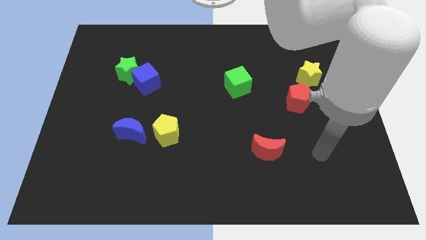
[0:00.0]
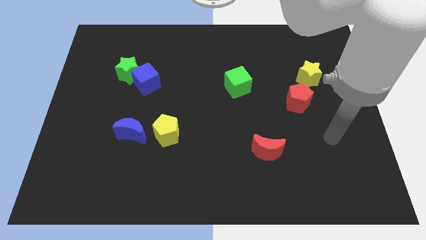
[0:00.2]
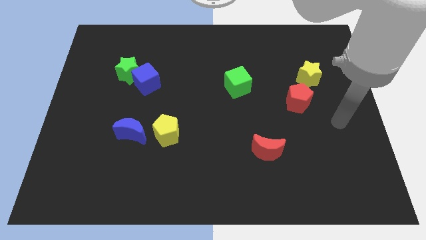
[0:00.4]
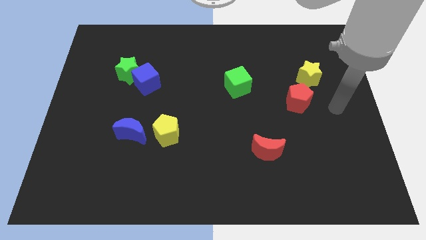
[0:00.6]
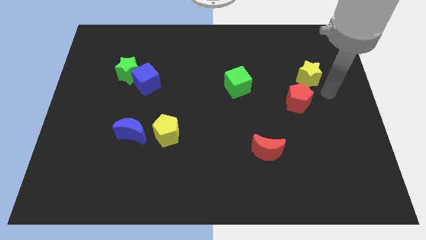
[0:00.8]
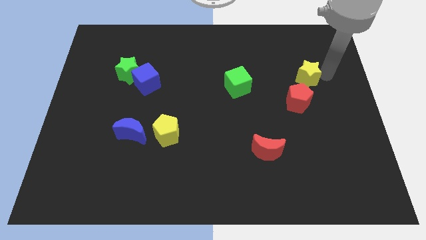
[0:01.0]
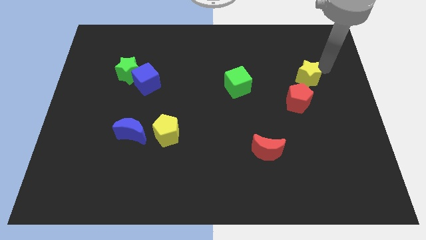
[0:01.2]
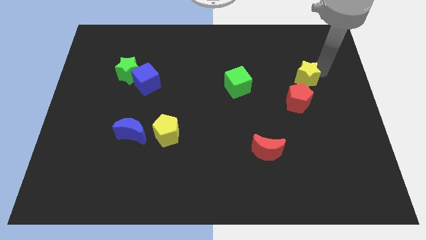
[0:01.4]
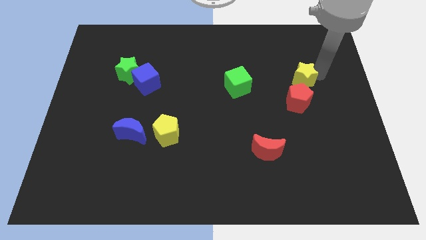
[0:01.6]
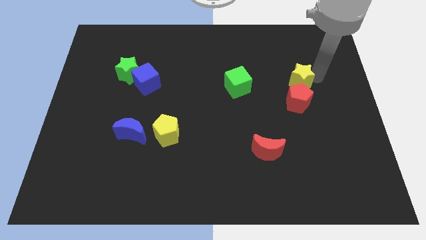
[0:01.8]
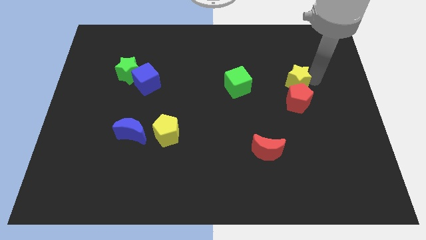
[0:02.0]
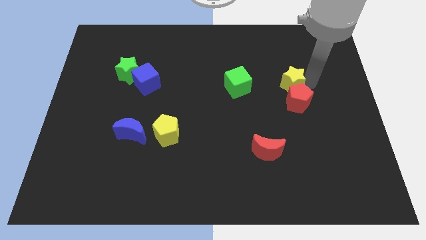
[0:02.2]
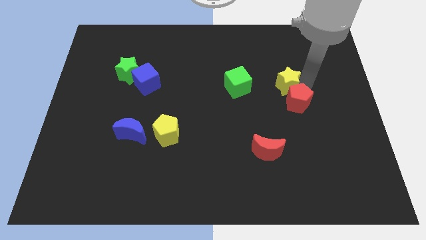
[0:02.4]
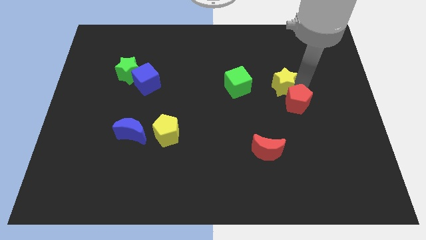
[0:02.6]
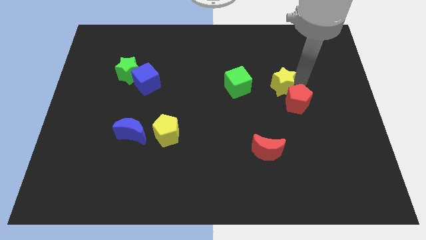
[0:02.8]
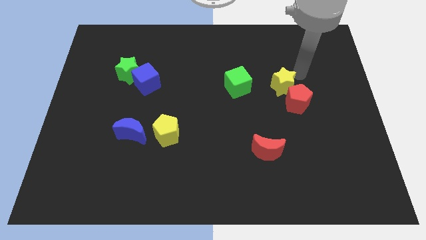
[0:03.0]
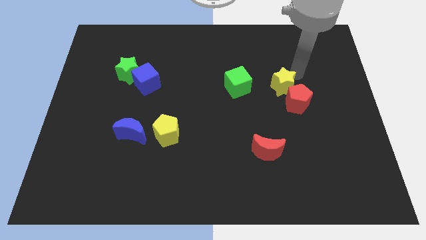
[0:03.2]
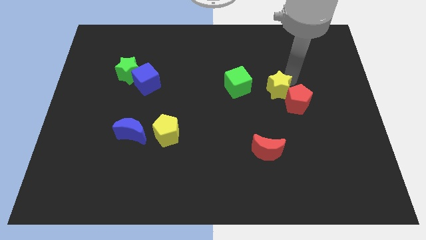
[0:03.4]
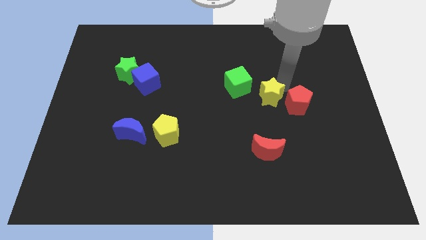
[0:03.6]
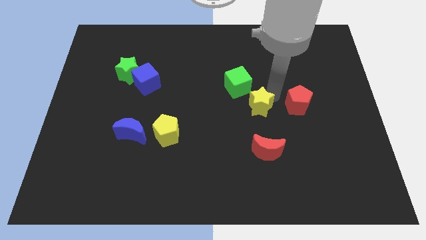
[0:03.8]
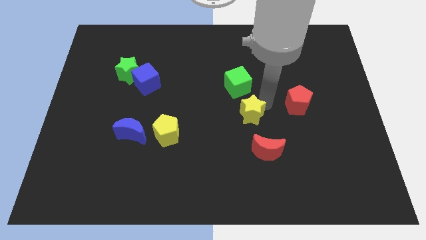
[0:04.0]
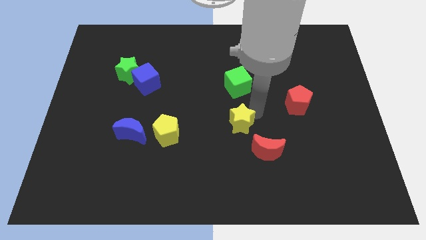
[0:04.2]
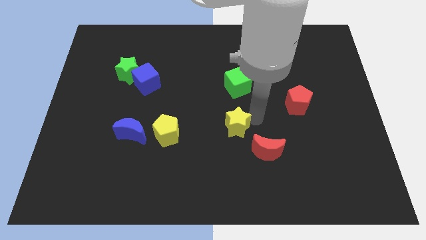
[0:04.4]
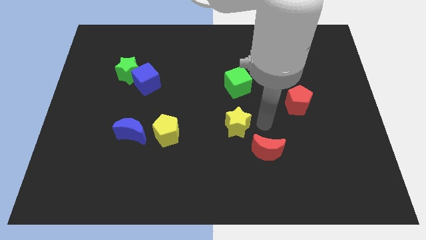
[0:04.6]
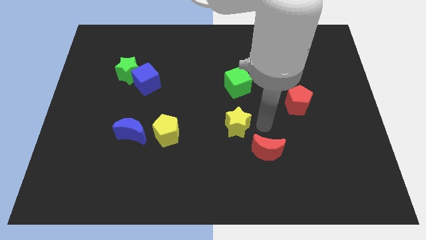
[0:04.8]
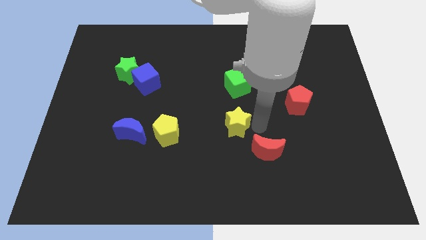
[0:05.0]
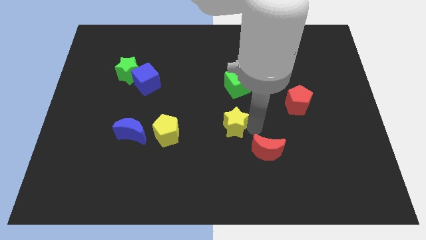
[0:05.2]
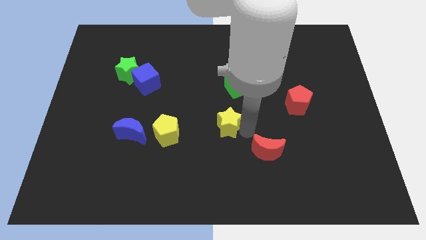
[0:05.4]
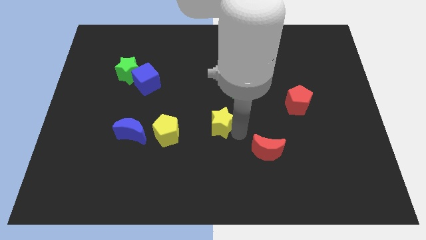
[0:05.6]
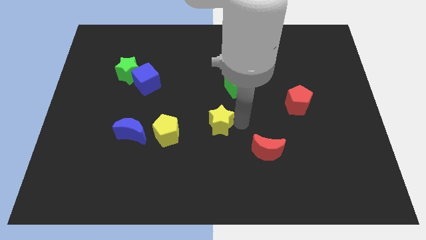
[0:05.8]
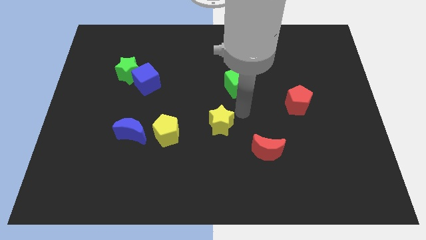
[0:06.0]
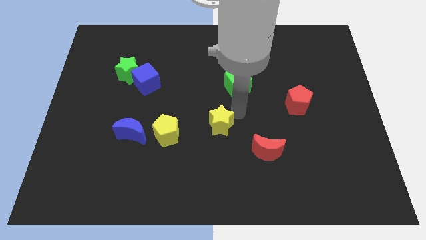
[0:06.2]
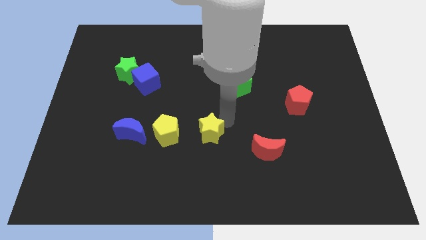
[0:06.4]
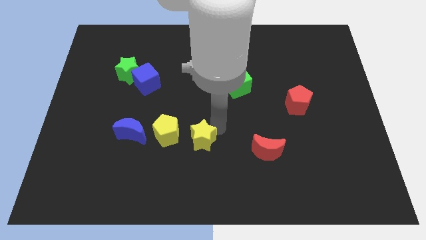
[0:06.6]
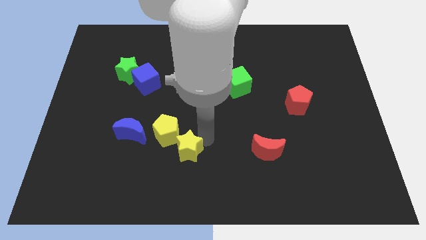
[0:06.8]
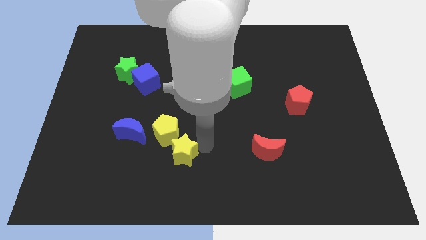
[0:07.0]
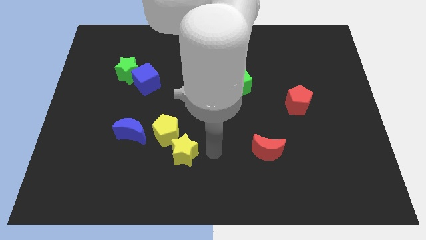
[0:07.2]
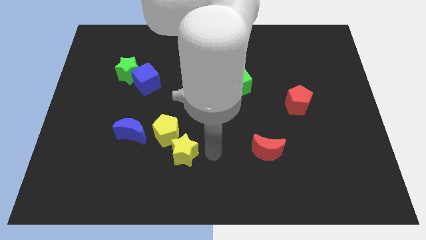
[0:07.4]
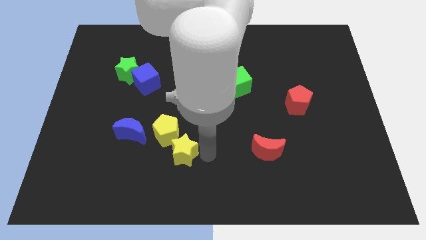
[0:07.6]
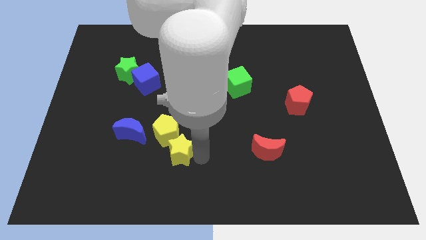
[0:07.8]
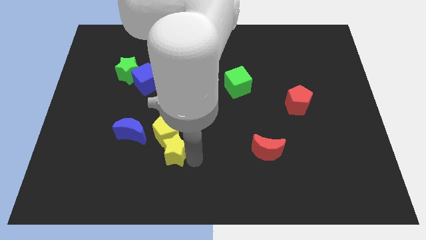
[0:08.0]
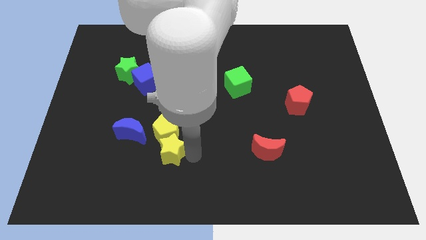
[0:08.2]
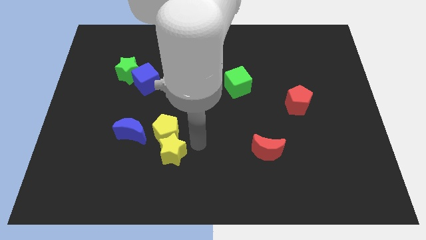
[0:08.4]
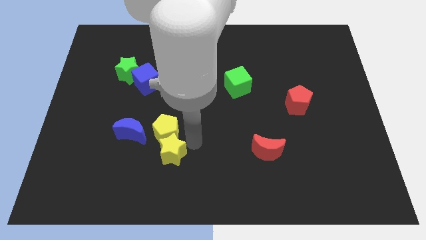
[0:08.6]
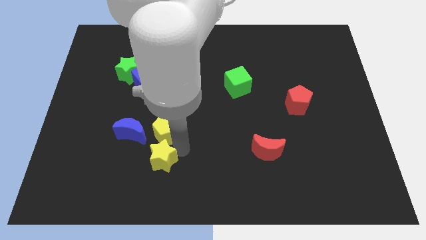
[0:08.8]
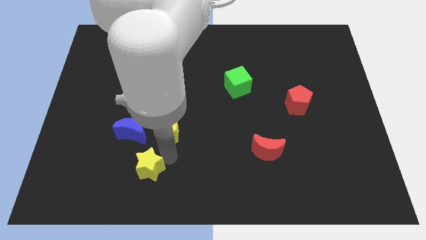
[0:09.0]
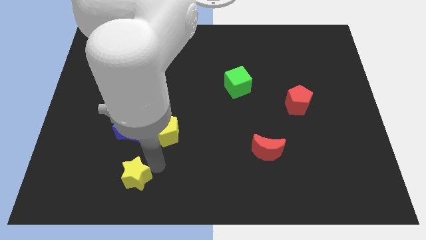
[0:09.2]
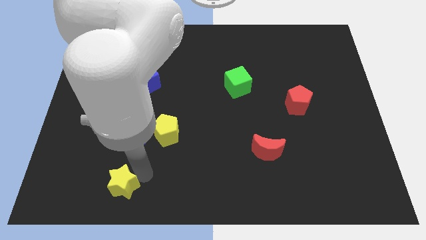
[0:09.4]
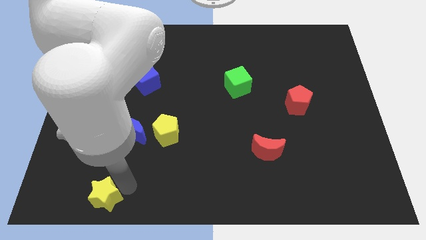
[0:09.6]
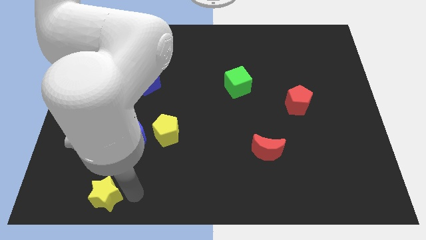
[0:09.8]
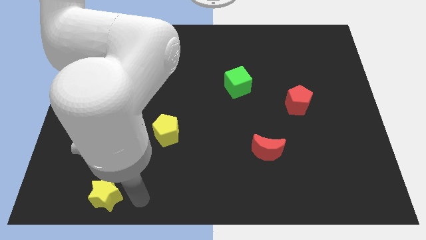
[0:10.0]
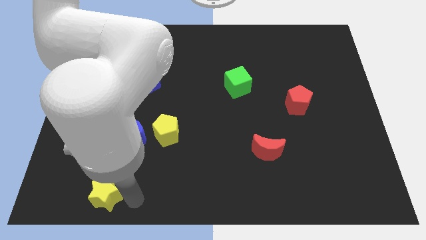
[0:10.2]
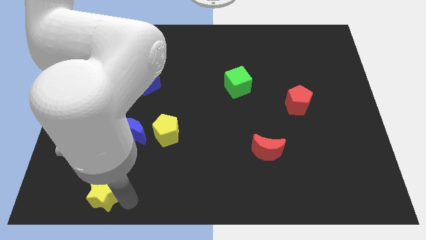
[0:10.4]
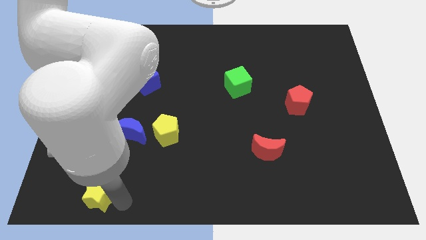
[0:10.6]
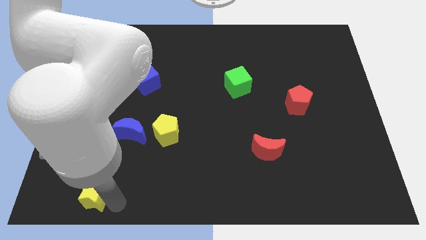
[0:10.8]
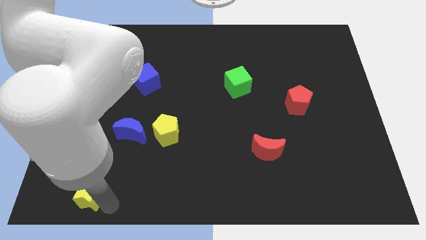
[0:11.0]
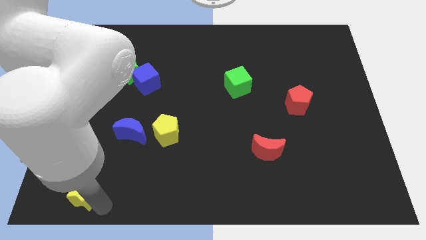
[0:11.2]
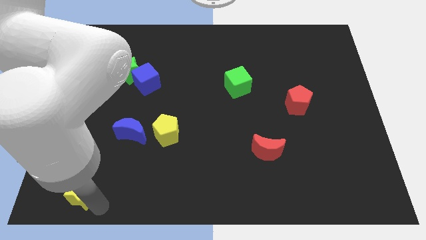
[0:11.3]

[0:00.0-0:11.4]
slide the yellow star to the bottom left of the board

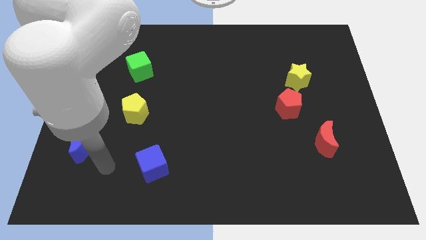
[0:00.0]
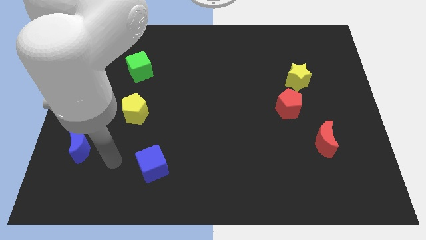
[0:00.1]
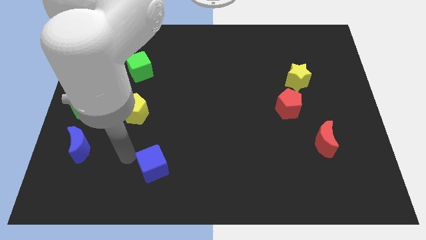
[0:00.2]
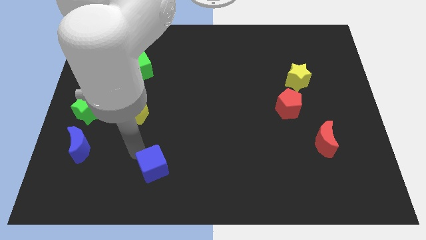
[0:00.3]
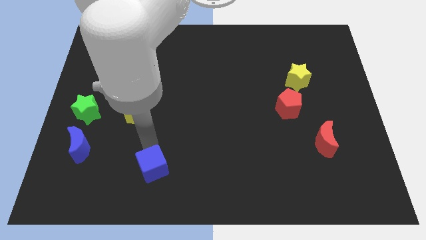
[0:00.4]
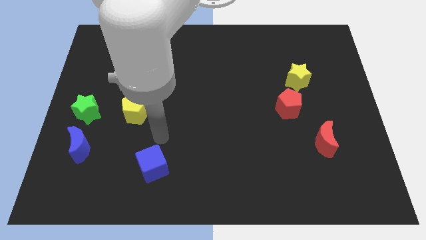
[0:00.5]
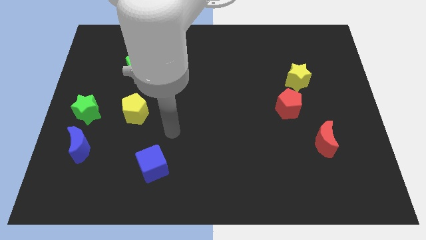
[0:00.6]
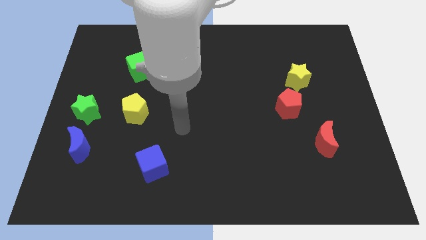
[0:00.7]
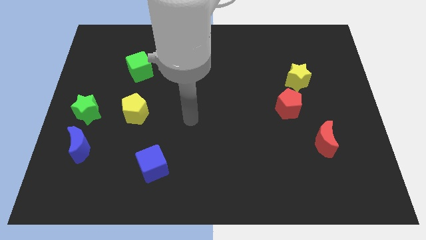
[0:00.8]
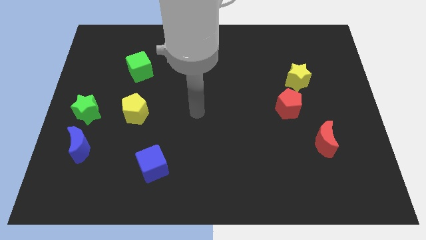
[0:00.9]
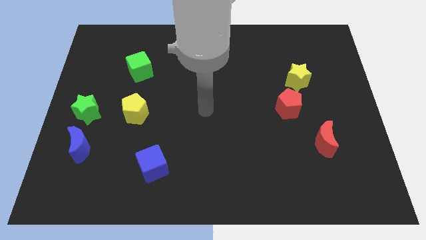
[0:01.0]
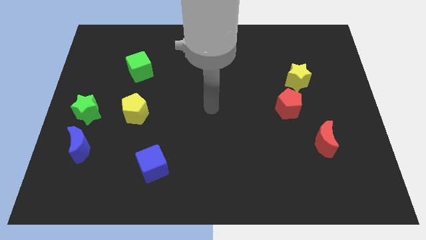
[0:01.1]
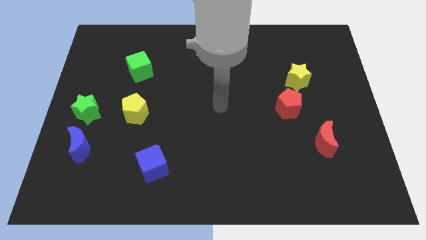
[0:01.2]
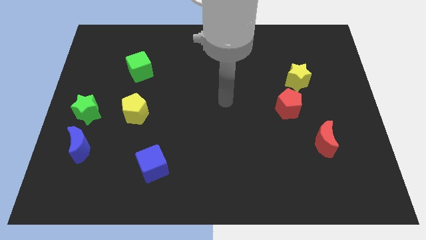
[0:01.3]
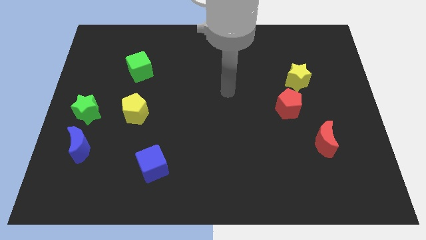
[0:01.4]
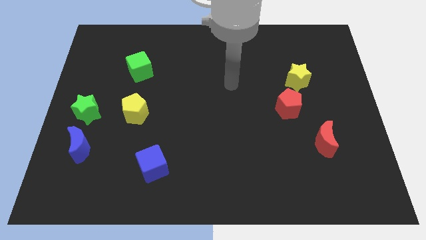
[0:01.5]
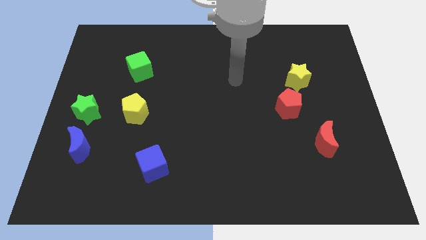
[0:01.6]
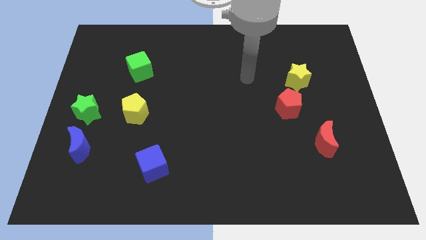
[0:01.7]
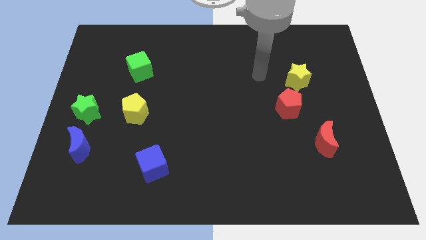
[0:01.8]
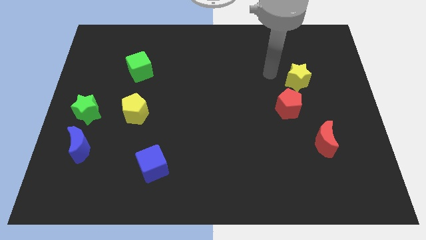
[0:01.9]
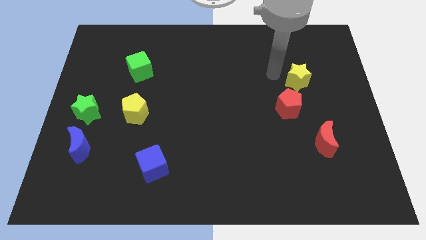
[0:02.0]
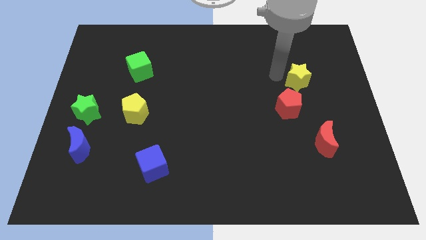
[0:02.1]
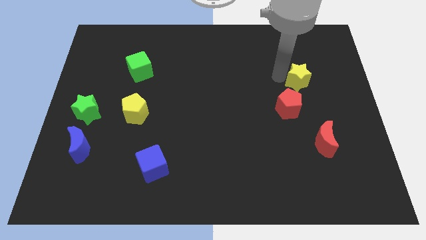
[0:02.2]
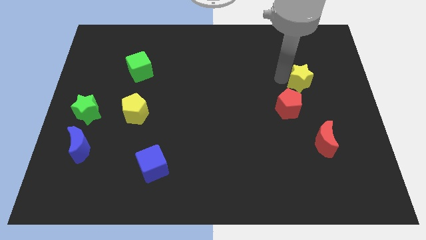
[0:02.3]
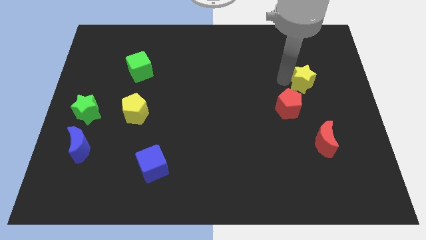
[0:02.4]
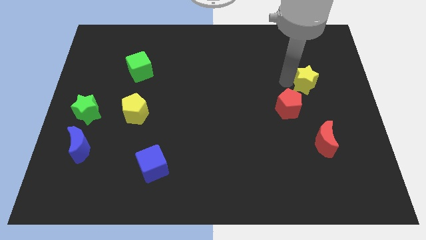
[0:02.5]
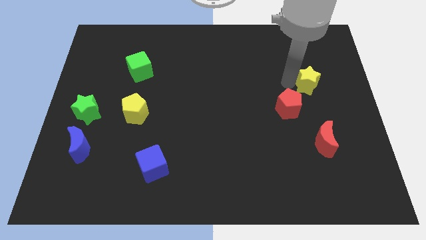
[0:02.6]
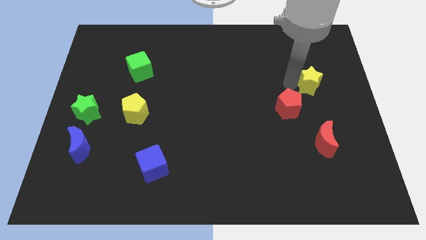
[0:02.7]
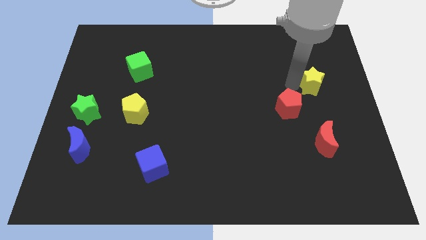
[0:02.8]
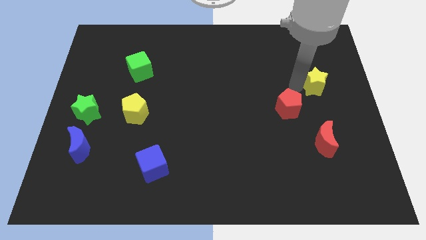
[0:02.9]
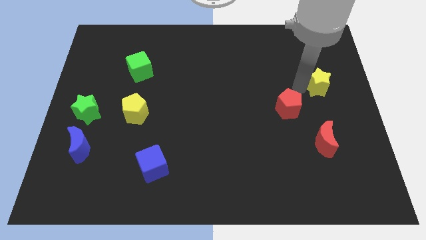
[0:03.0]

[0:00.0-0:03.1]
slide the yellow star to the right side
